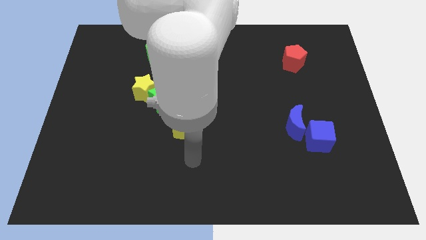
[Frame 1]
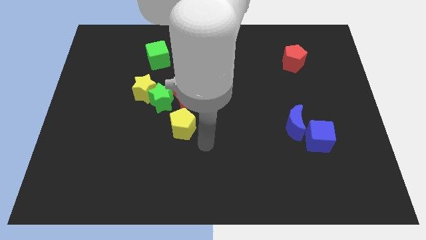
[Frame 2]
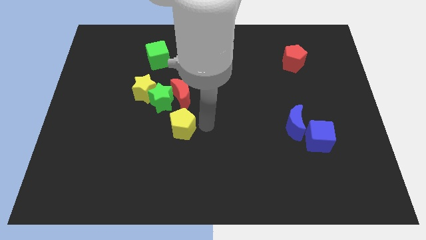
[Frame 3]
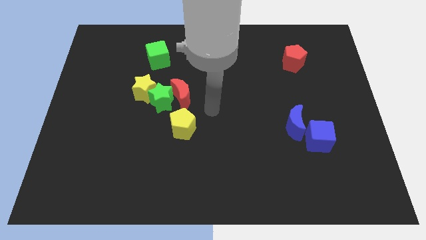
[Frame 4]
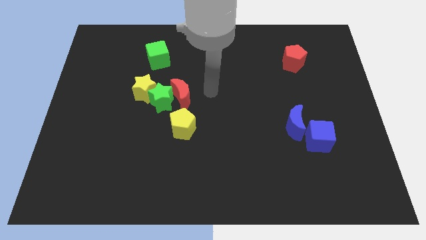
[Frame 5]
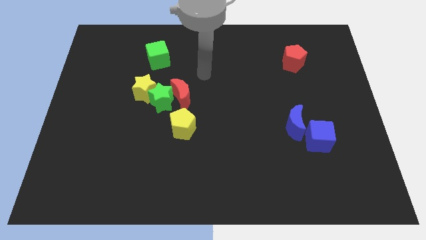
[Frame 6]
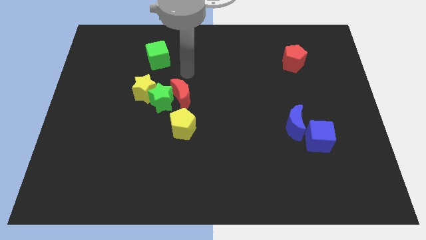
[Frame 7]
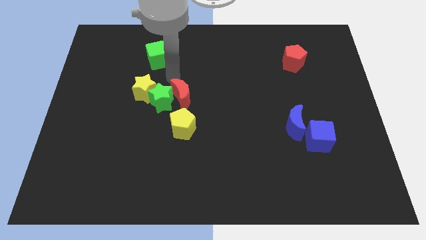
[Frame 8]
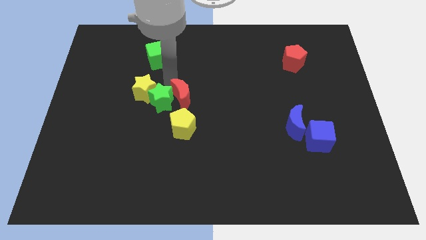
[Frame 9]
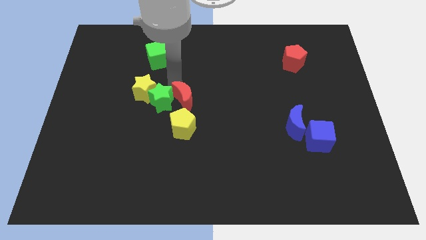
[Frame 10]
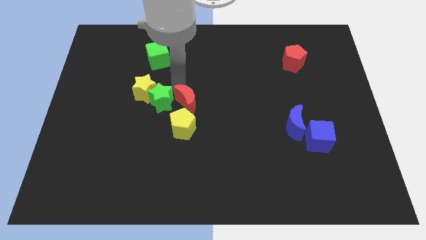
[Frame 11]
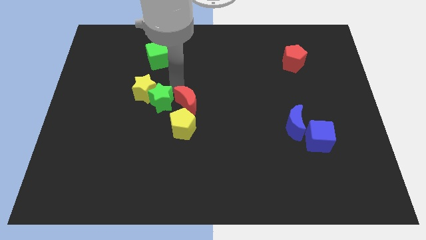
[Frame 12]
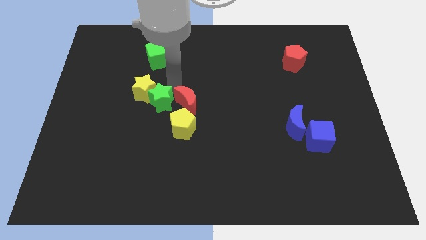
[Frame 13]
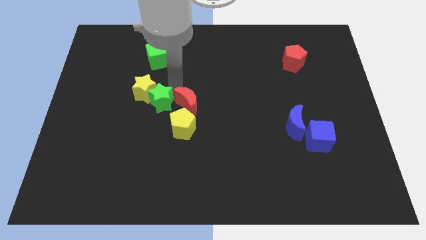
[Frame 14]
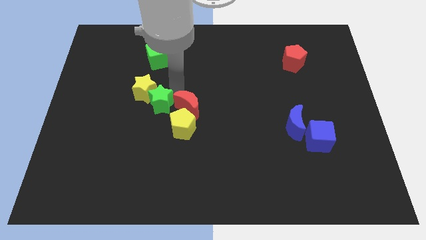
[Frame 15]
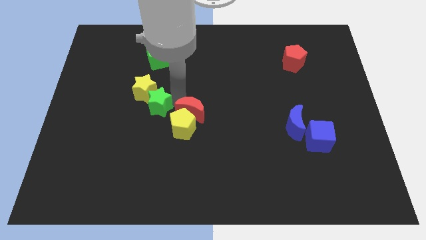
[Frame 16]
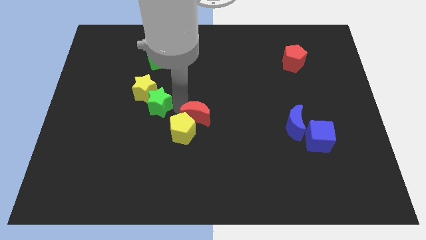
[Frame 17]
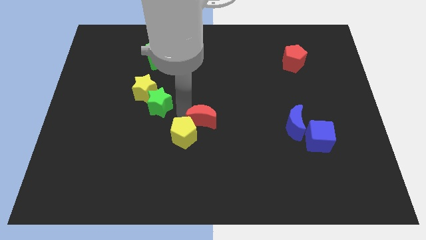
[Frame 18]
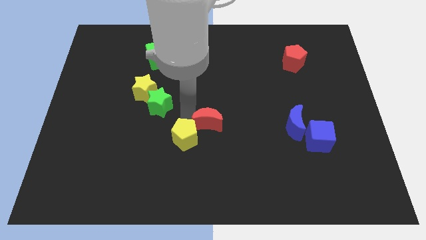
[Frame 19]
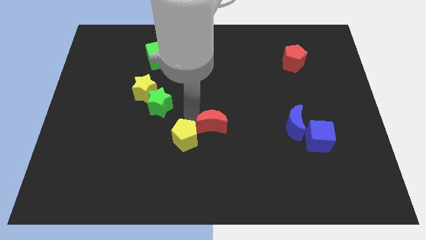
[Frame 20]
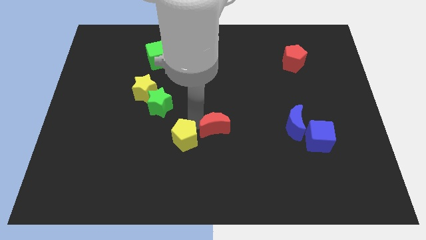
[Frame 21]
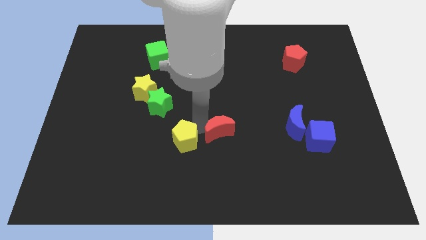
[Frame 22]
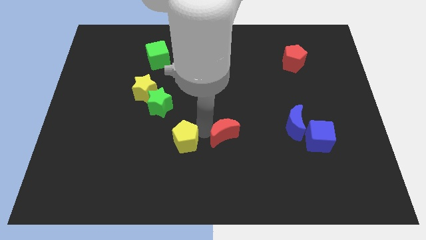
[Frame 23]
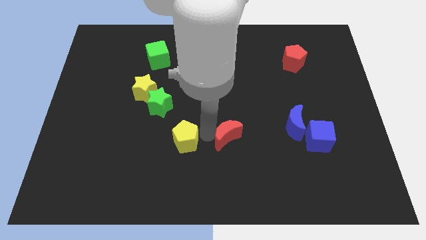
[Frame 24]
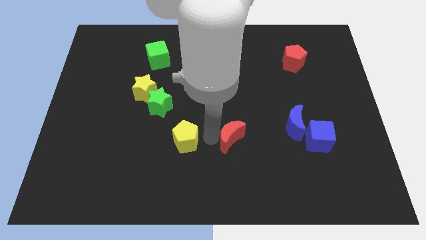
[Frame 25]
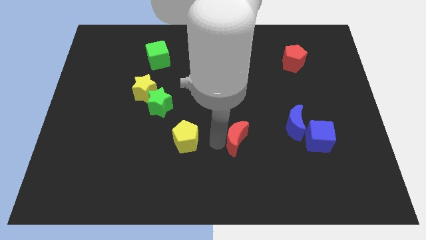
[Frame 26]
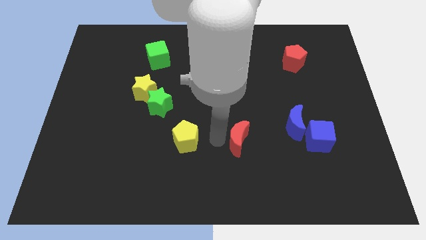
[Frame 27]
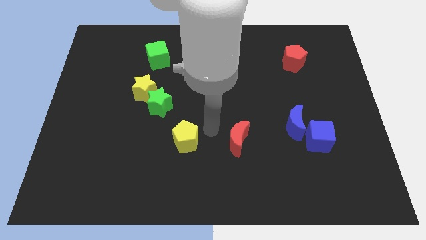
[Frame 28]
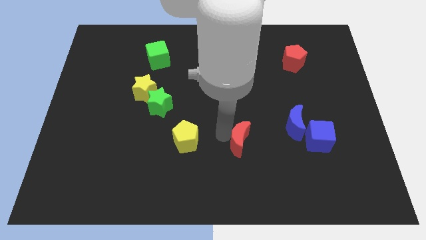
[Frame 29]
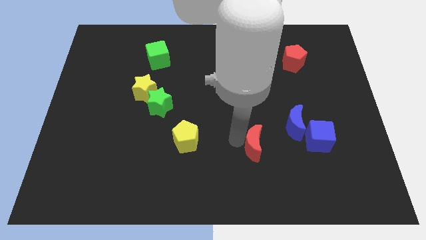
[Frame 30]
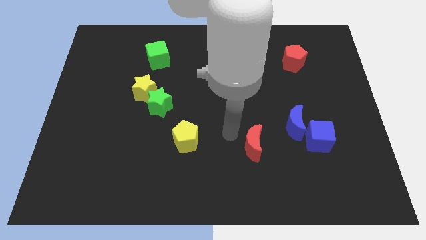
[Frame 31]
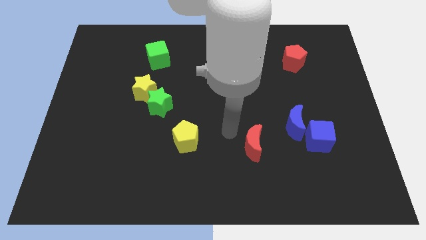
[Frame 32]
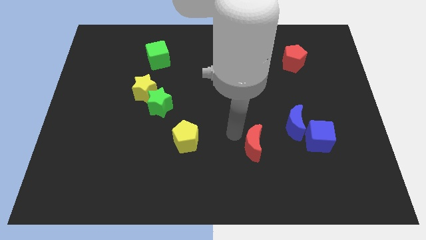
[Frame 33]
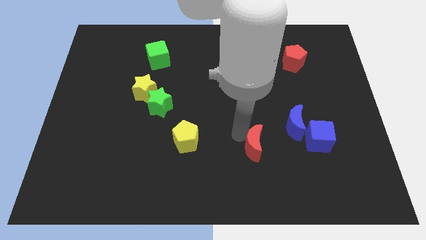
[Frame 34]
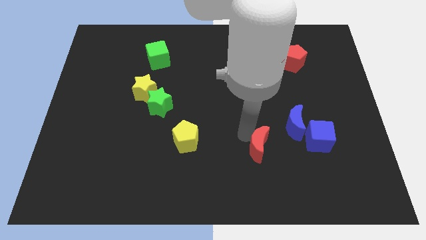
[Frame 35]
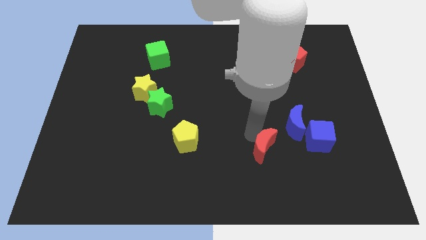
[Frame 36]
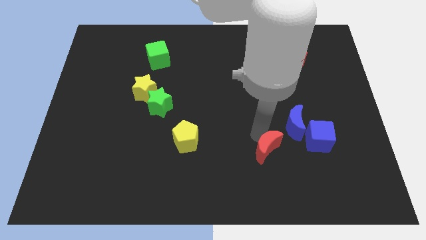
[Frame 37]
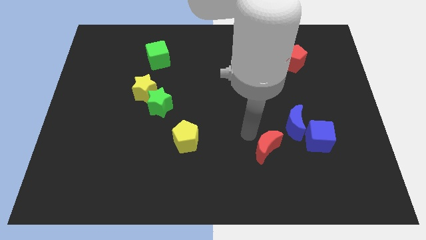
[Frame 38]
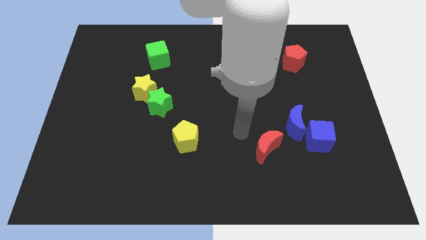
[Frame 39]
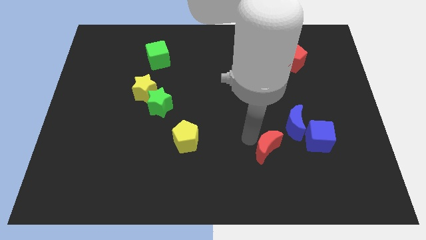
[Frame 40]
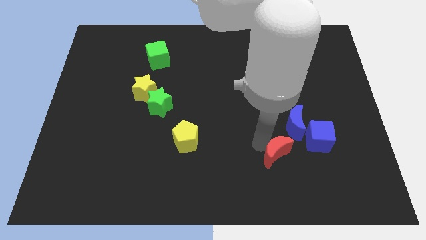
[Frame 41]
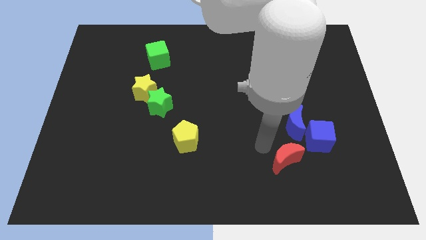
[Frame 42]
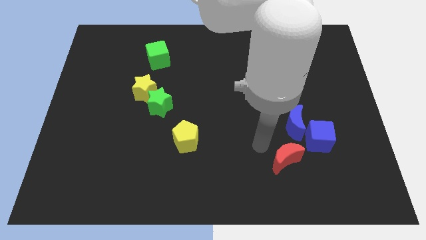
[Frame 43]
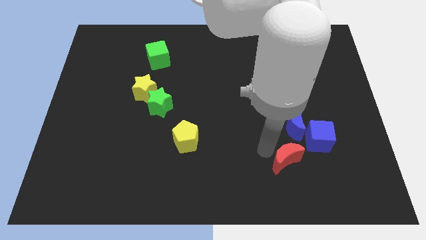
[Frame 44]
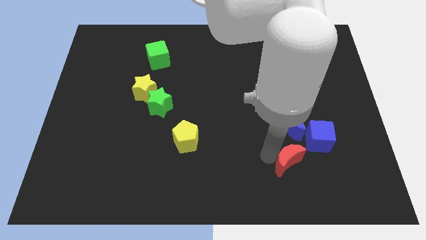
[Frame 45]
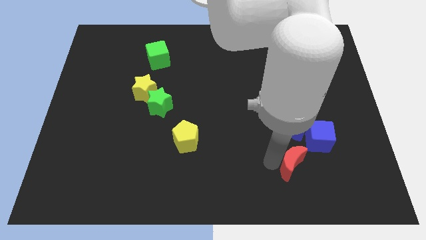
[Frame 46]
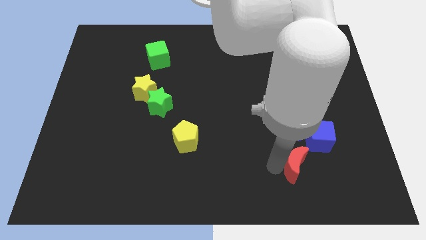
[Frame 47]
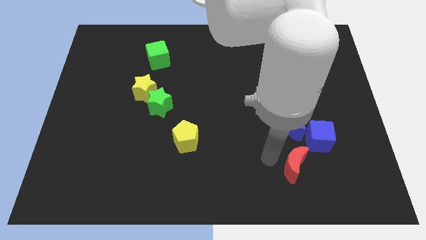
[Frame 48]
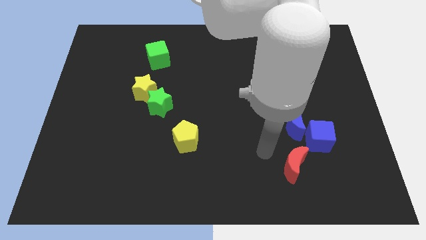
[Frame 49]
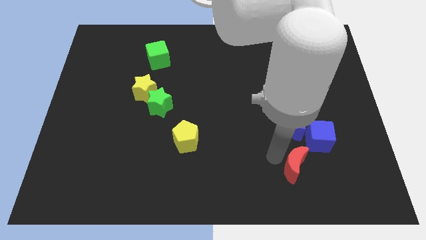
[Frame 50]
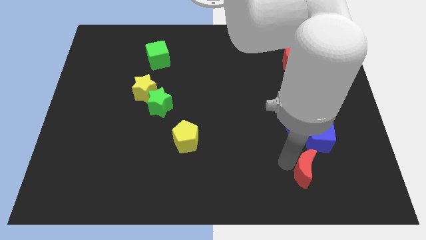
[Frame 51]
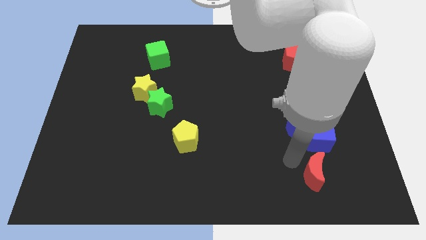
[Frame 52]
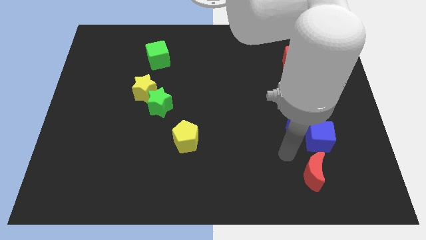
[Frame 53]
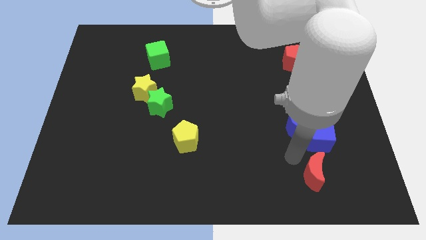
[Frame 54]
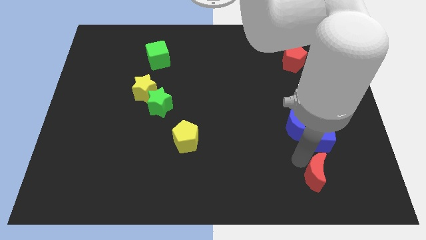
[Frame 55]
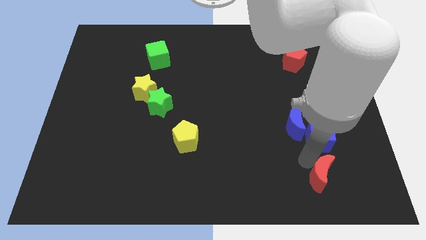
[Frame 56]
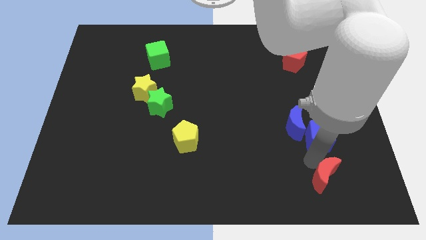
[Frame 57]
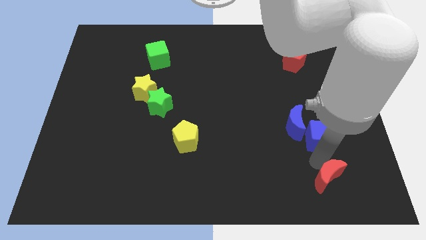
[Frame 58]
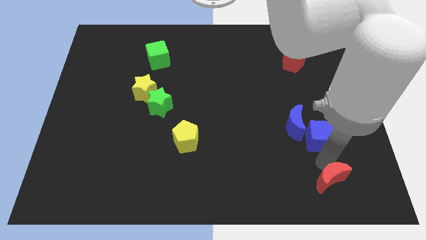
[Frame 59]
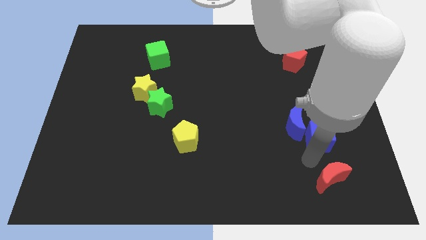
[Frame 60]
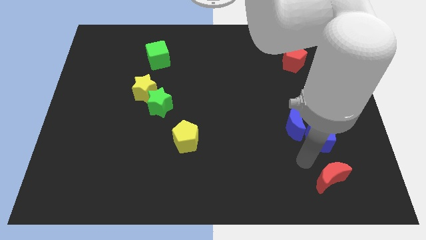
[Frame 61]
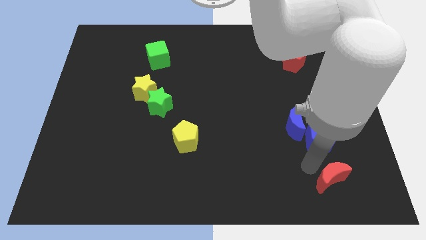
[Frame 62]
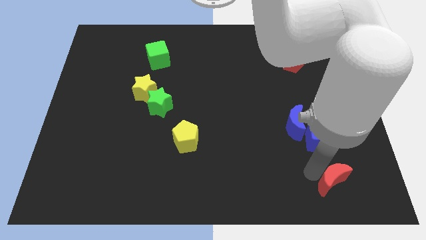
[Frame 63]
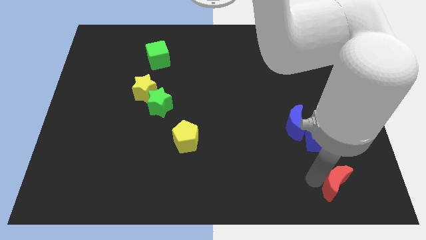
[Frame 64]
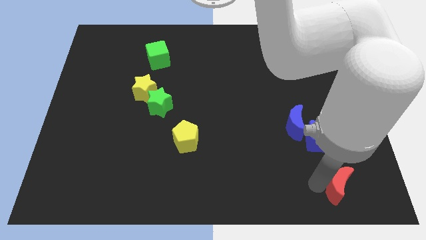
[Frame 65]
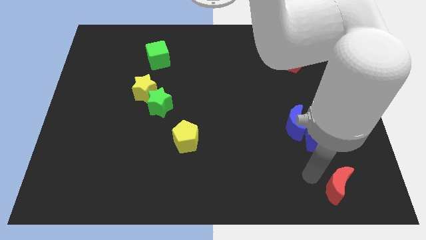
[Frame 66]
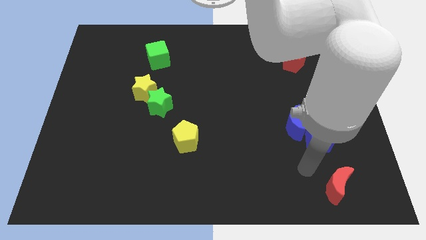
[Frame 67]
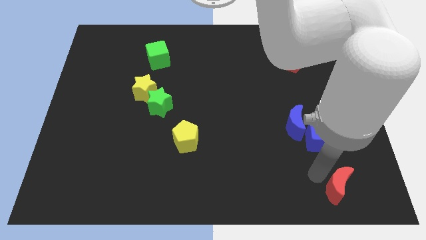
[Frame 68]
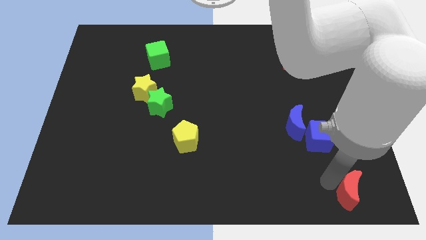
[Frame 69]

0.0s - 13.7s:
put the red moon to the bottom right of the board

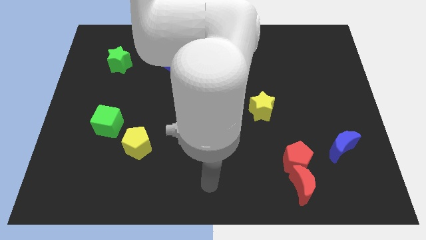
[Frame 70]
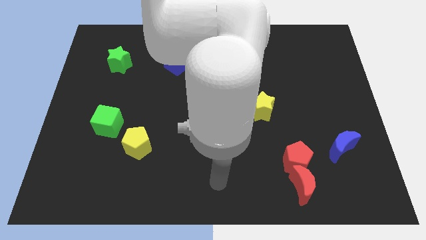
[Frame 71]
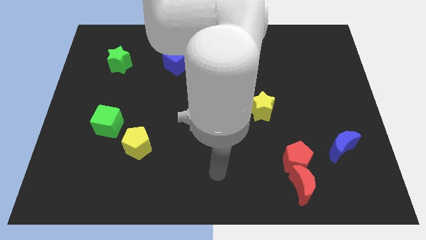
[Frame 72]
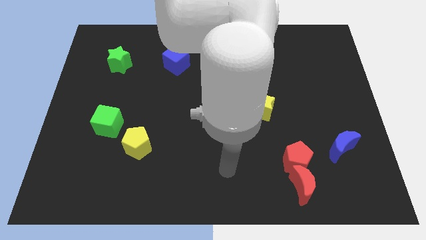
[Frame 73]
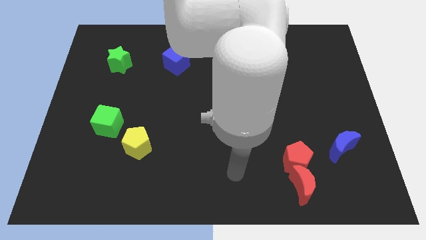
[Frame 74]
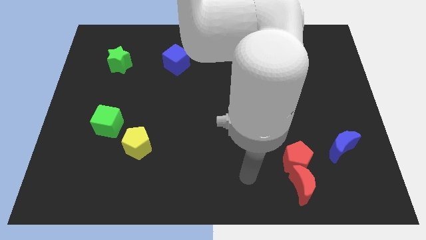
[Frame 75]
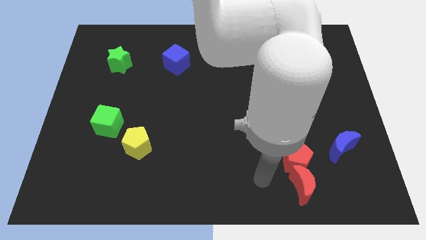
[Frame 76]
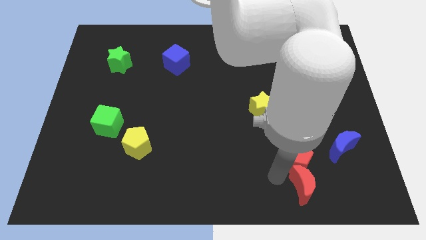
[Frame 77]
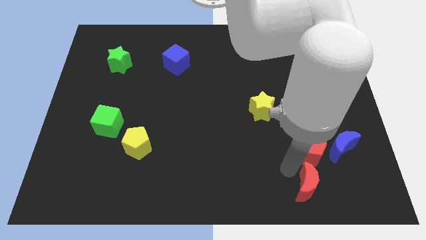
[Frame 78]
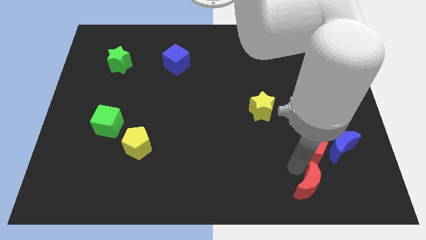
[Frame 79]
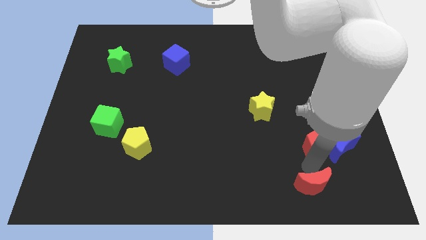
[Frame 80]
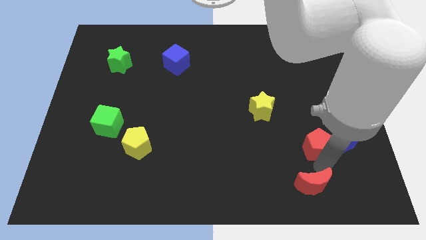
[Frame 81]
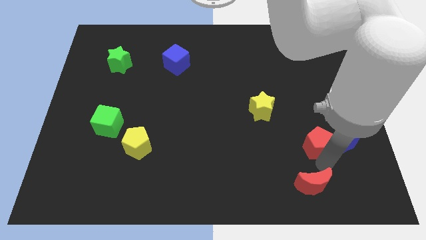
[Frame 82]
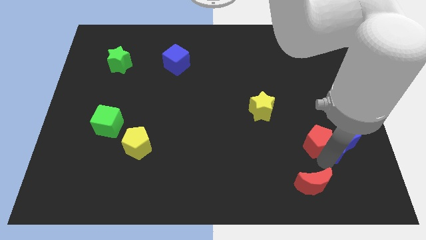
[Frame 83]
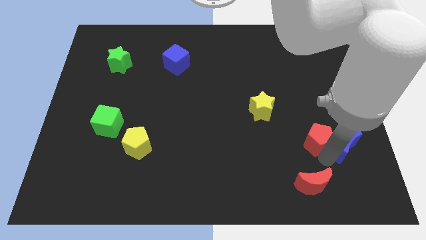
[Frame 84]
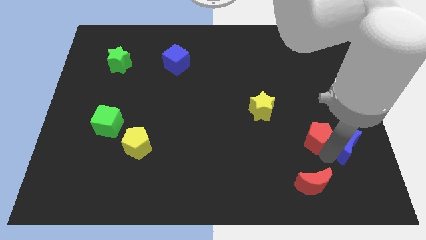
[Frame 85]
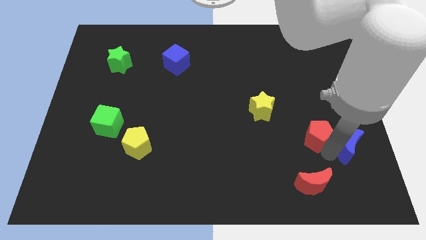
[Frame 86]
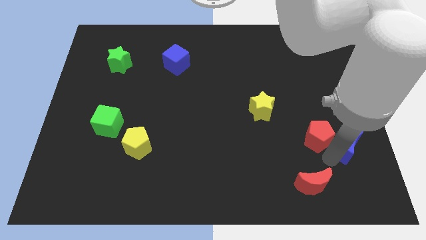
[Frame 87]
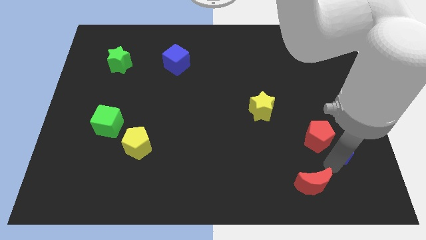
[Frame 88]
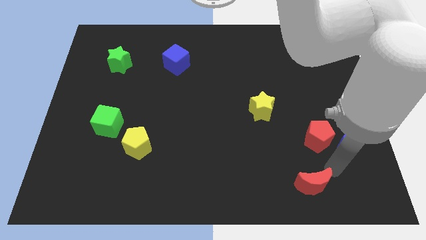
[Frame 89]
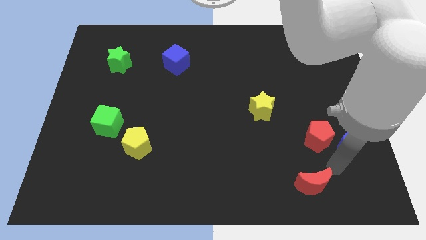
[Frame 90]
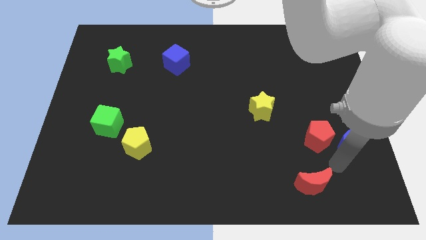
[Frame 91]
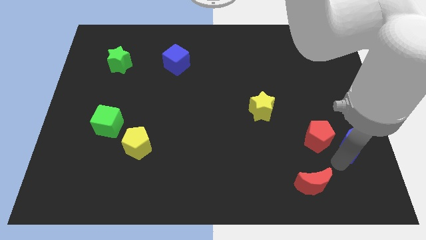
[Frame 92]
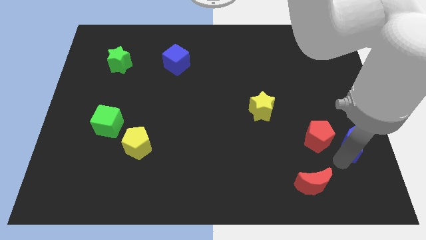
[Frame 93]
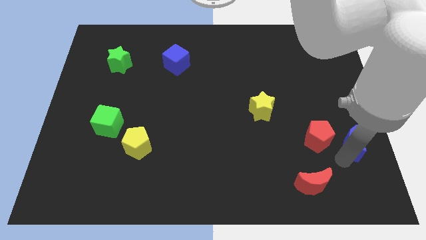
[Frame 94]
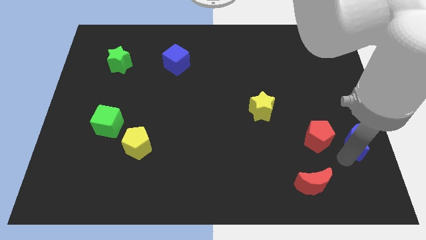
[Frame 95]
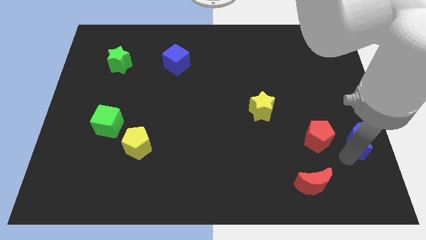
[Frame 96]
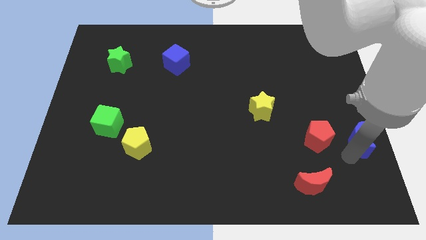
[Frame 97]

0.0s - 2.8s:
slide the blue moon to the right side of the board
